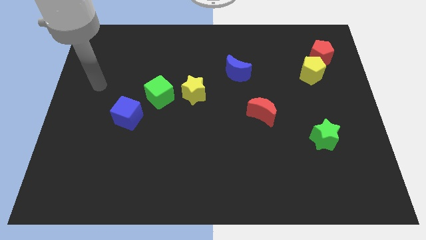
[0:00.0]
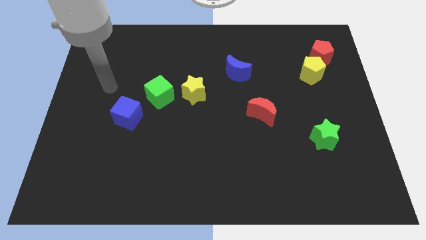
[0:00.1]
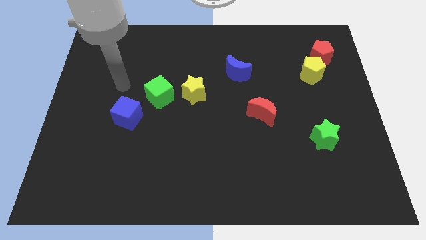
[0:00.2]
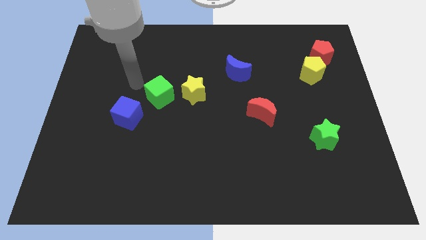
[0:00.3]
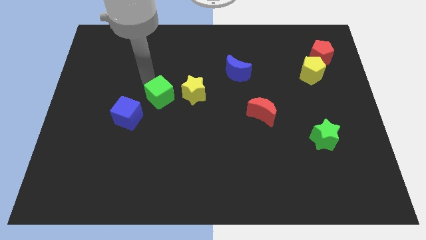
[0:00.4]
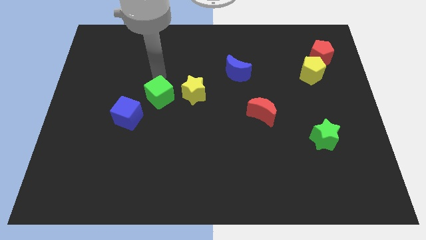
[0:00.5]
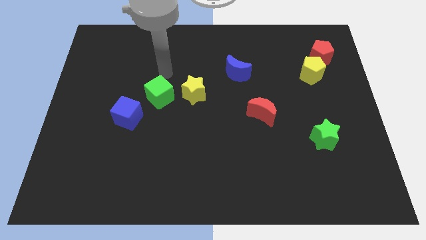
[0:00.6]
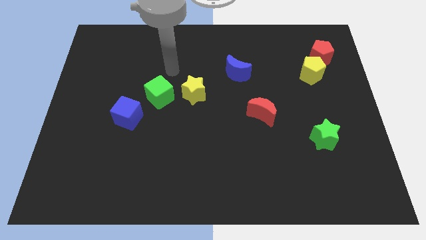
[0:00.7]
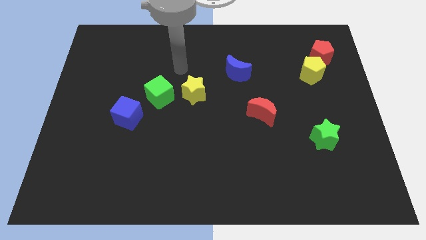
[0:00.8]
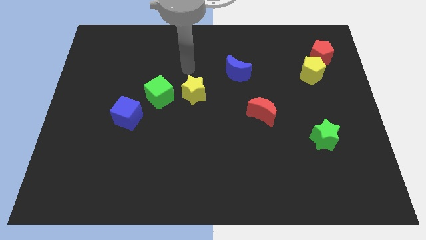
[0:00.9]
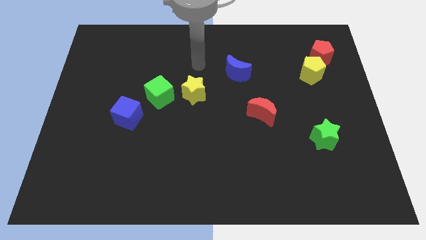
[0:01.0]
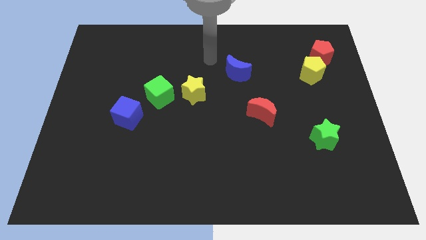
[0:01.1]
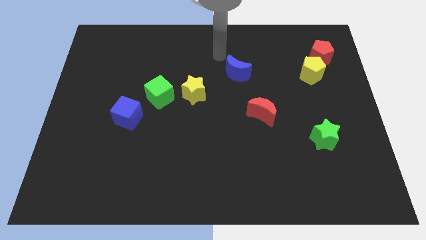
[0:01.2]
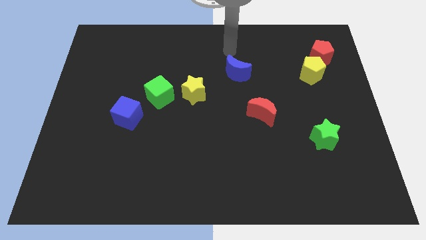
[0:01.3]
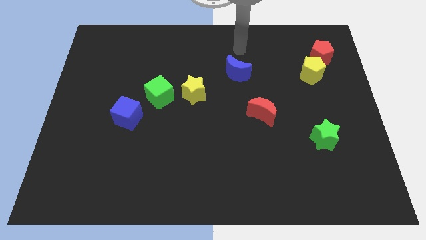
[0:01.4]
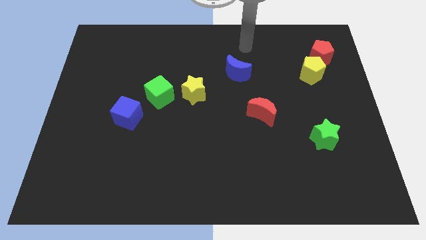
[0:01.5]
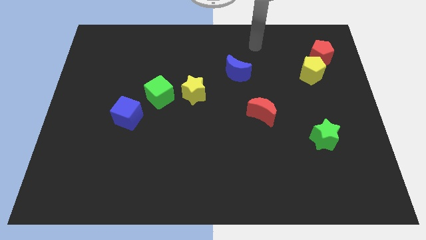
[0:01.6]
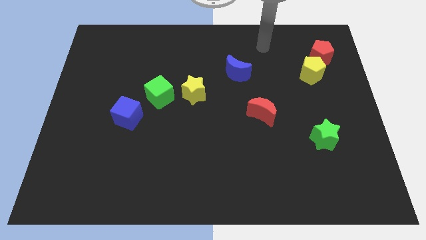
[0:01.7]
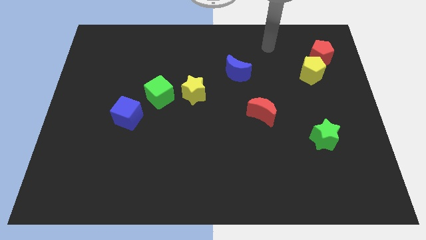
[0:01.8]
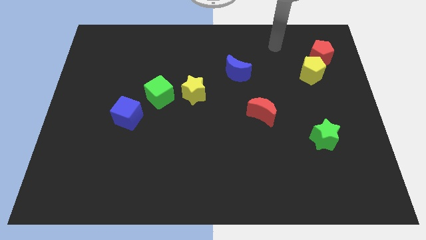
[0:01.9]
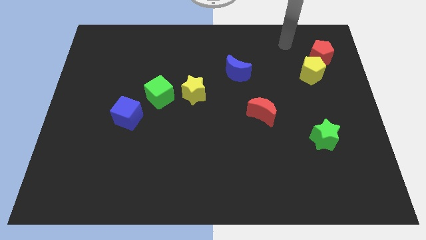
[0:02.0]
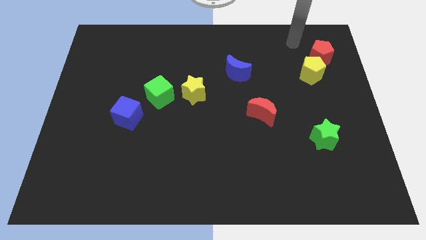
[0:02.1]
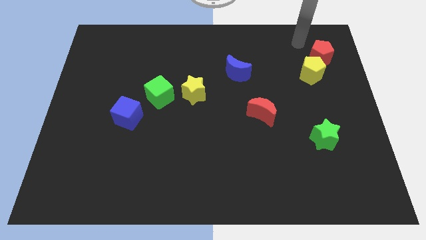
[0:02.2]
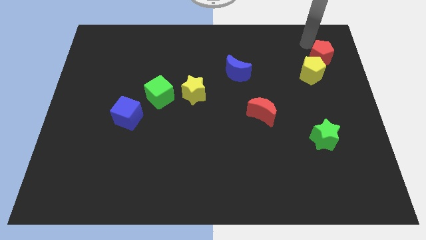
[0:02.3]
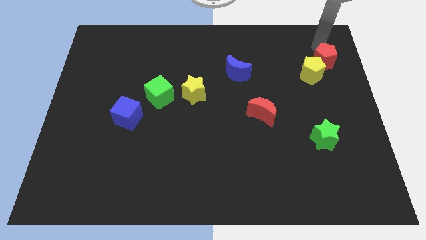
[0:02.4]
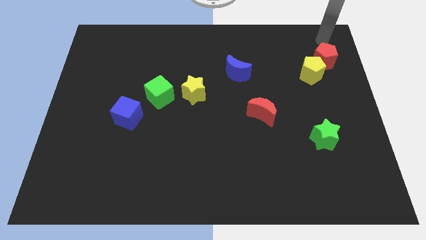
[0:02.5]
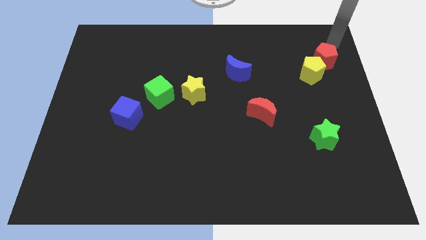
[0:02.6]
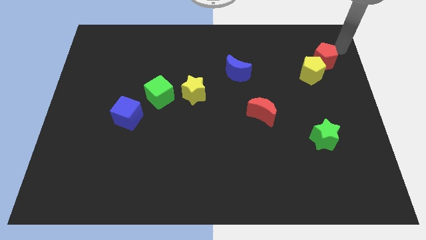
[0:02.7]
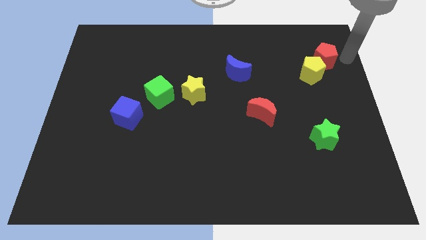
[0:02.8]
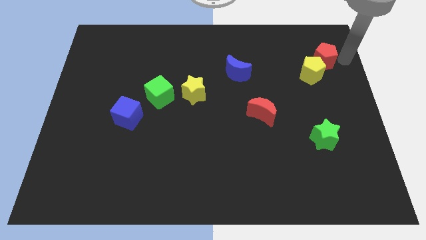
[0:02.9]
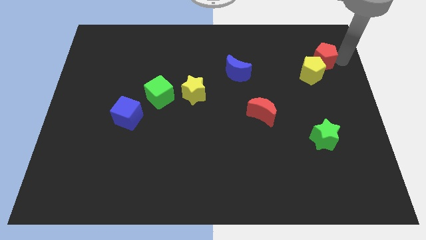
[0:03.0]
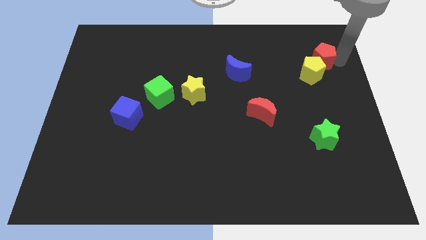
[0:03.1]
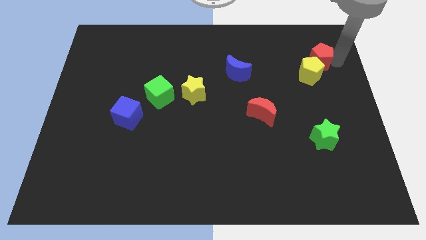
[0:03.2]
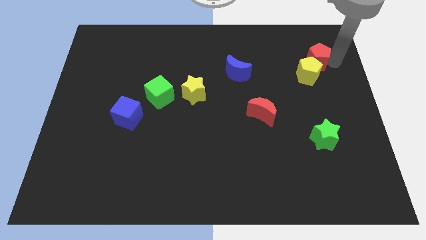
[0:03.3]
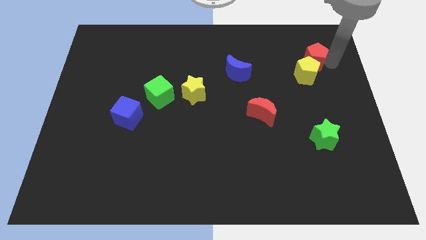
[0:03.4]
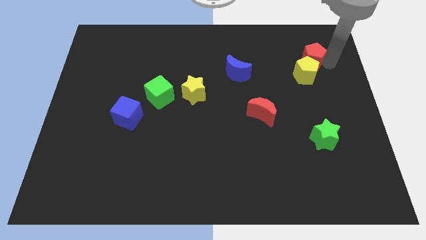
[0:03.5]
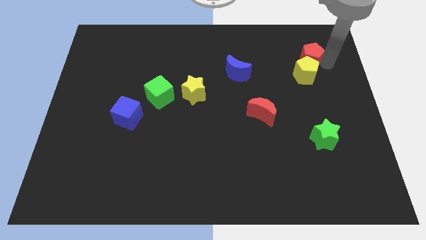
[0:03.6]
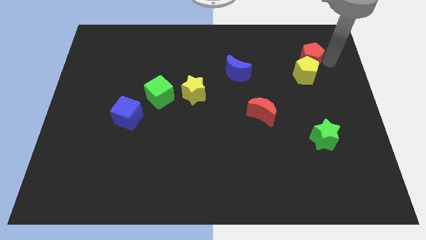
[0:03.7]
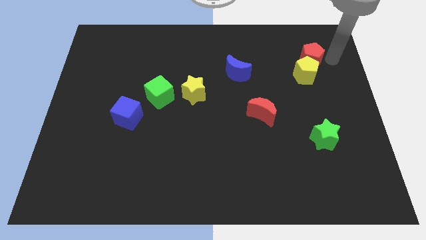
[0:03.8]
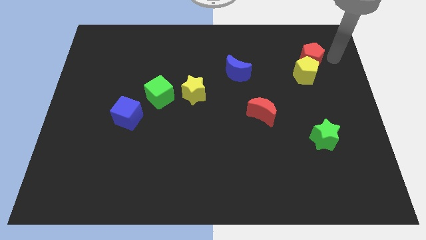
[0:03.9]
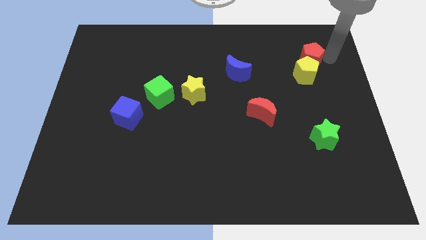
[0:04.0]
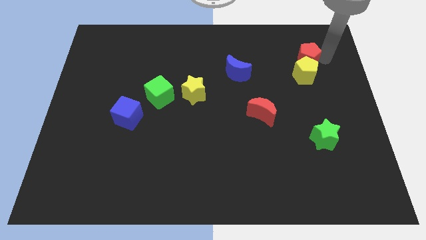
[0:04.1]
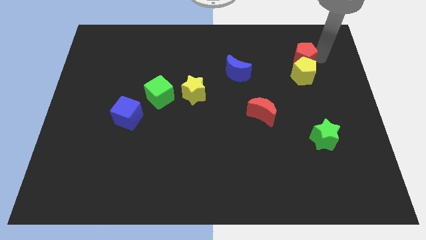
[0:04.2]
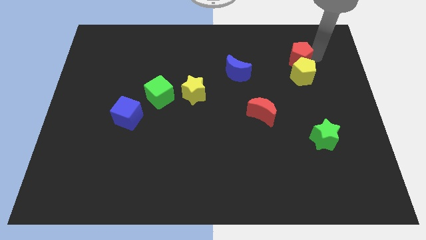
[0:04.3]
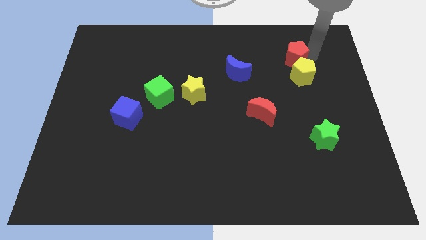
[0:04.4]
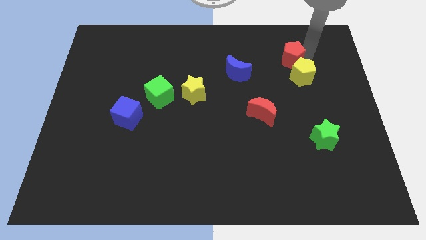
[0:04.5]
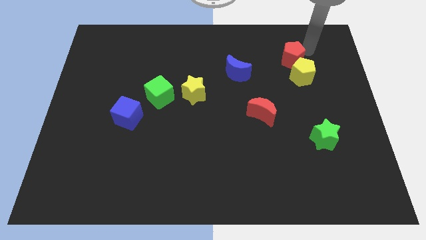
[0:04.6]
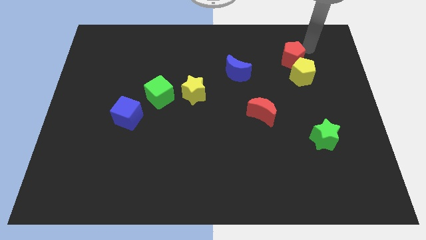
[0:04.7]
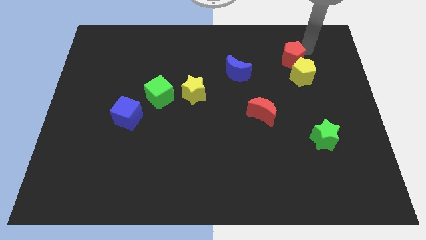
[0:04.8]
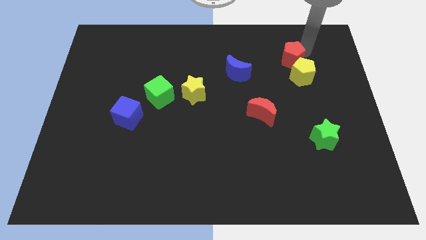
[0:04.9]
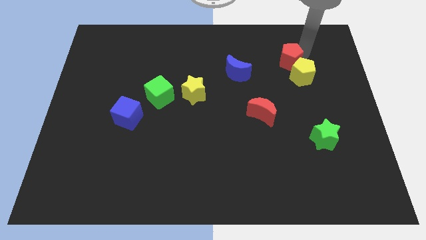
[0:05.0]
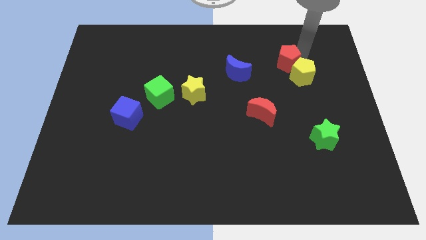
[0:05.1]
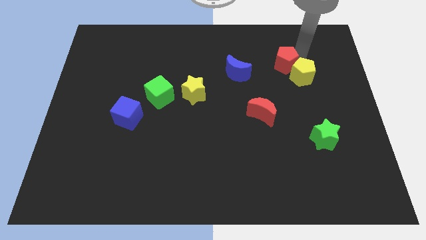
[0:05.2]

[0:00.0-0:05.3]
push the red pentagon to the left side of the yellow pentagon

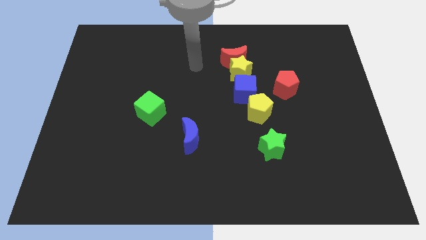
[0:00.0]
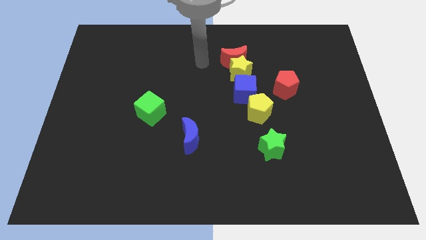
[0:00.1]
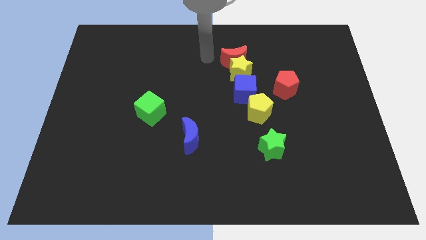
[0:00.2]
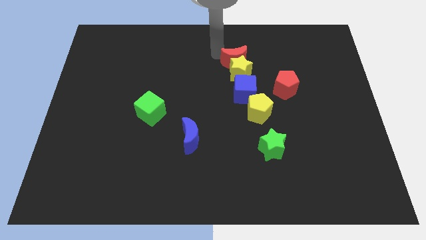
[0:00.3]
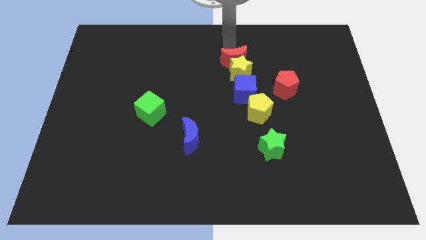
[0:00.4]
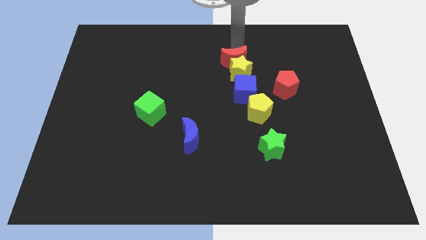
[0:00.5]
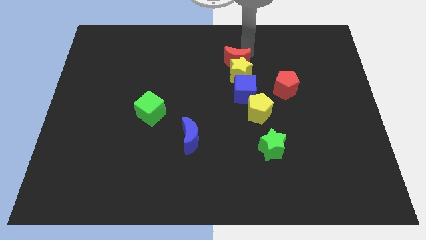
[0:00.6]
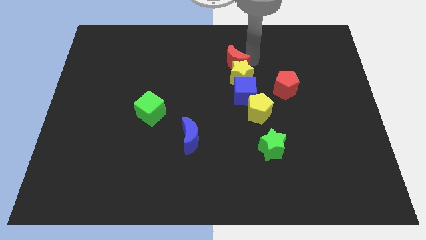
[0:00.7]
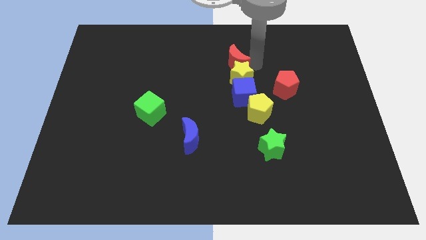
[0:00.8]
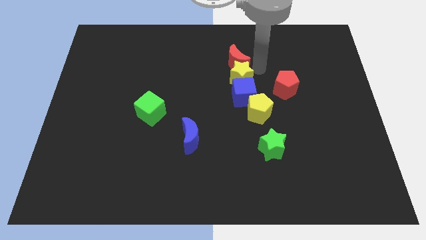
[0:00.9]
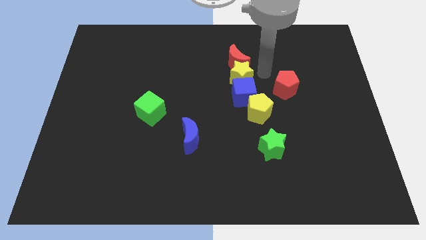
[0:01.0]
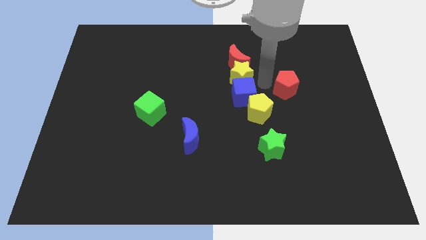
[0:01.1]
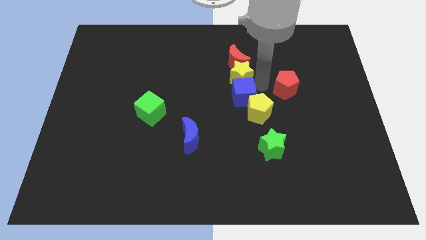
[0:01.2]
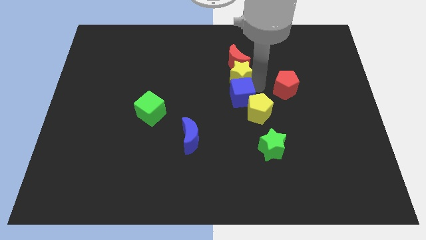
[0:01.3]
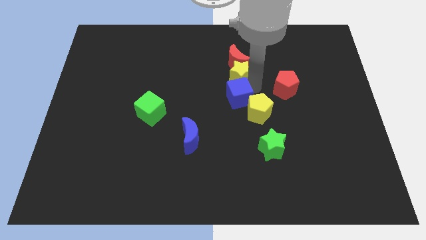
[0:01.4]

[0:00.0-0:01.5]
put the blue cube left of the yellow pentagon
